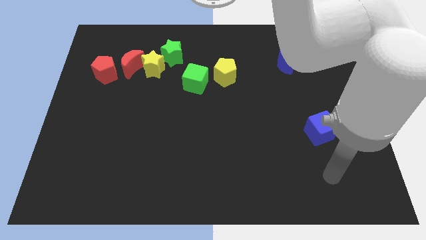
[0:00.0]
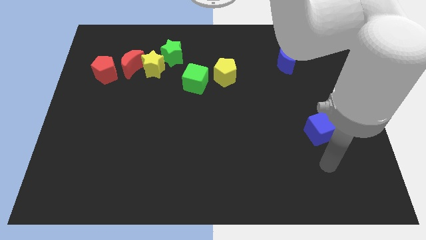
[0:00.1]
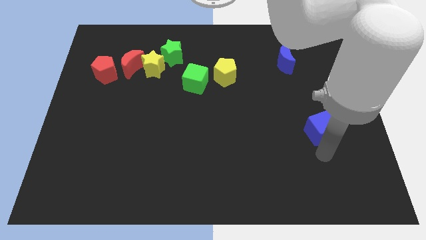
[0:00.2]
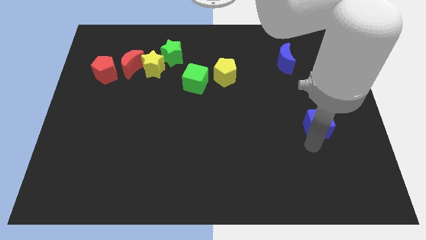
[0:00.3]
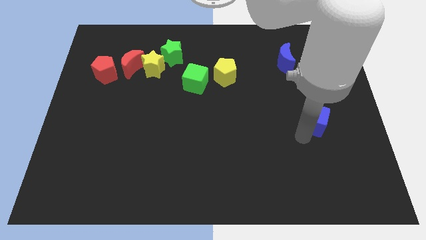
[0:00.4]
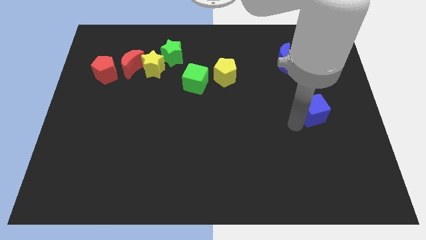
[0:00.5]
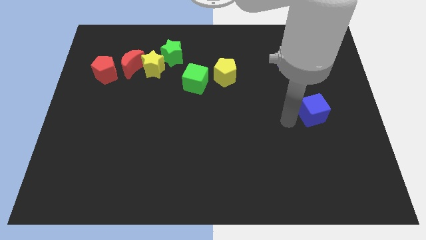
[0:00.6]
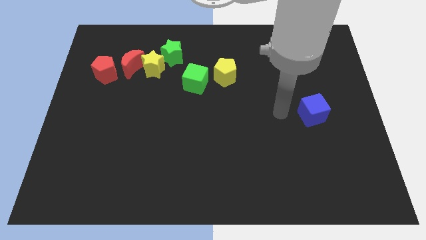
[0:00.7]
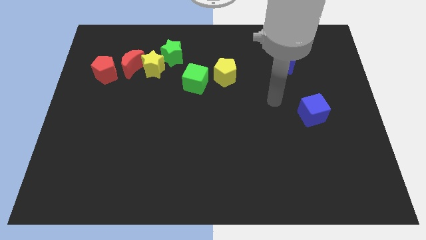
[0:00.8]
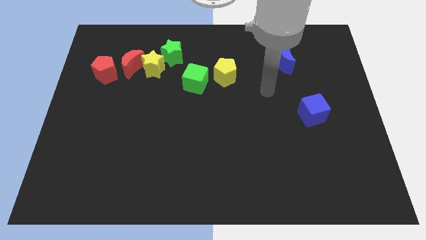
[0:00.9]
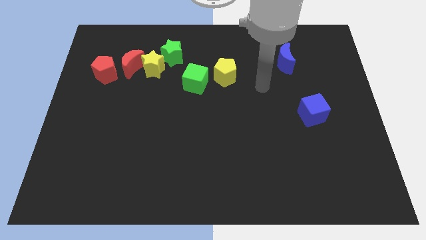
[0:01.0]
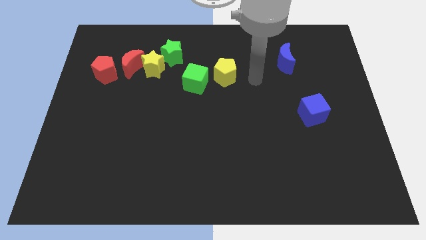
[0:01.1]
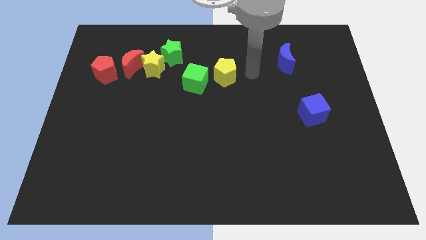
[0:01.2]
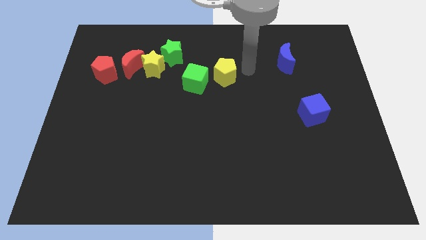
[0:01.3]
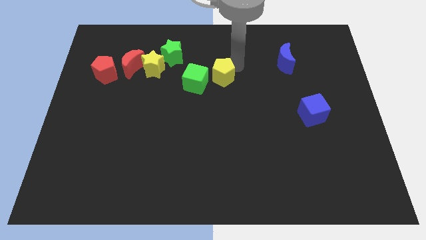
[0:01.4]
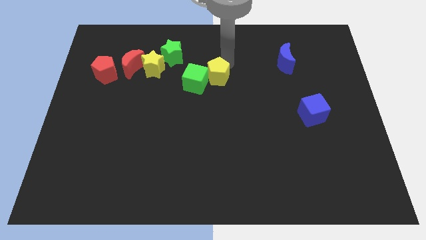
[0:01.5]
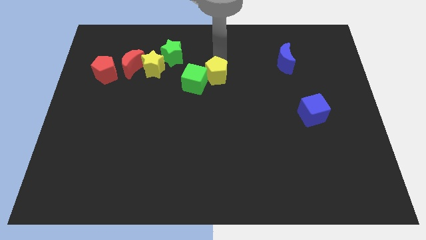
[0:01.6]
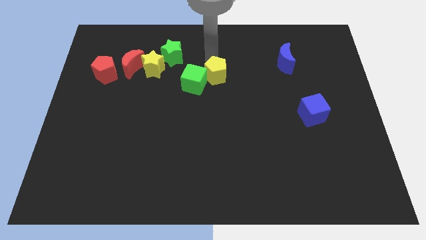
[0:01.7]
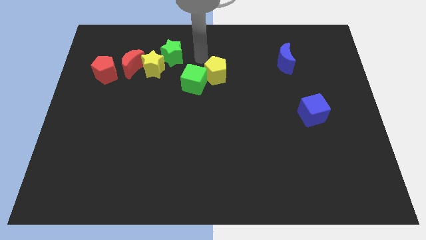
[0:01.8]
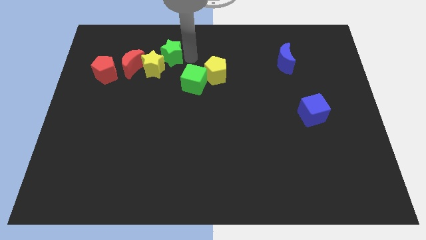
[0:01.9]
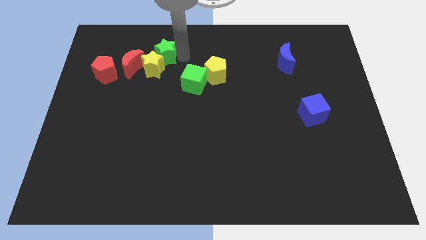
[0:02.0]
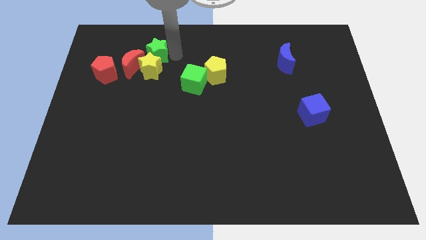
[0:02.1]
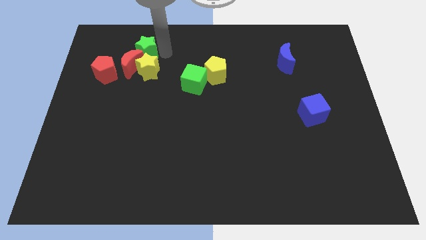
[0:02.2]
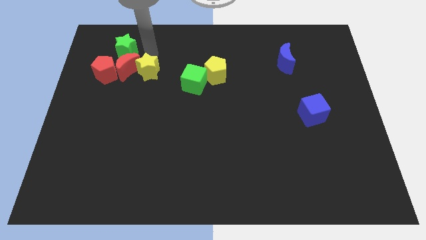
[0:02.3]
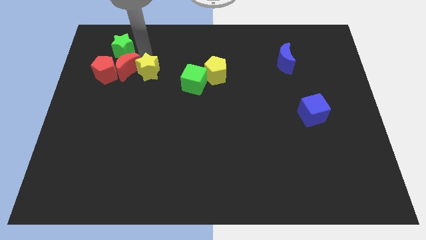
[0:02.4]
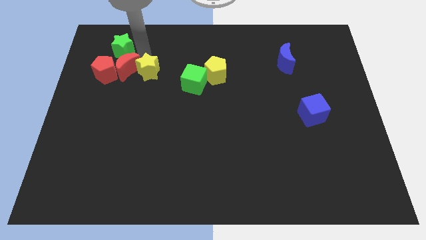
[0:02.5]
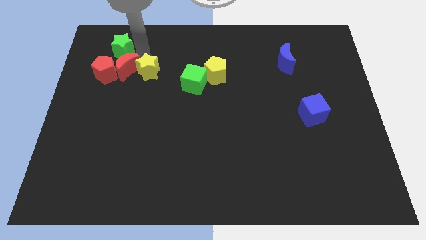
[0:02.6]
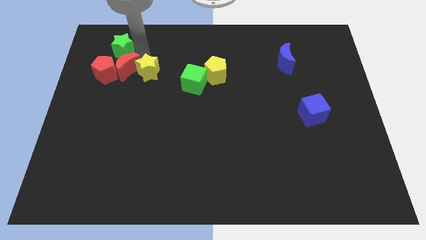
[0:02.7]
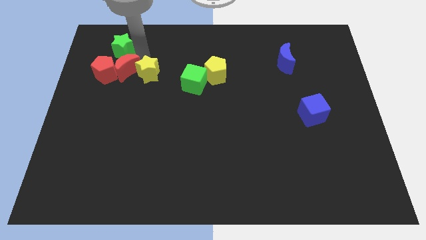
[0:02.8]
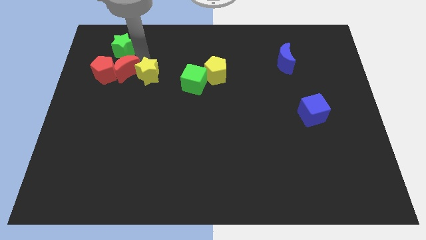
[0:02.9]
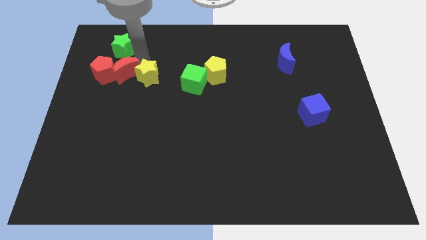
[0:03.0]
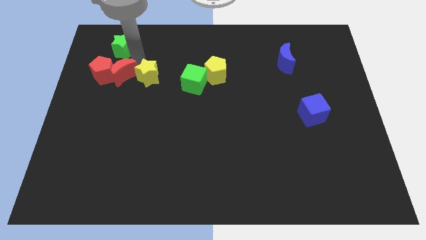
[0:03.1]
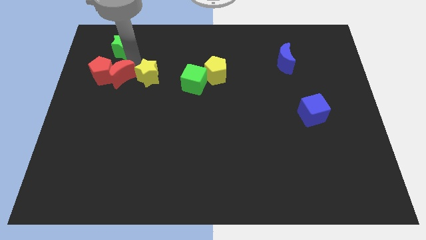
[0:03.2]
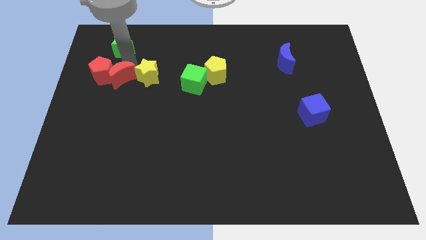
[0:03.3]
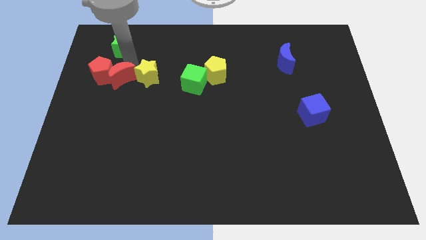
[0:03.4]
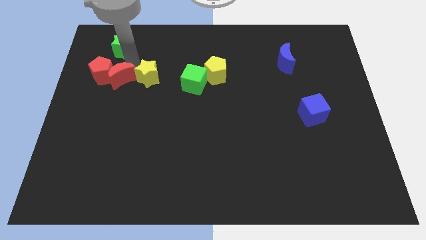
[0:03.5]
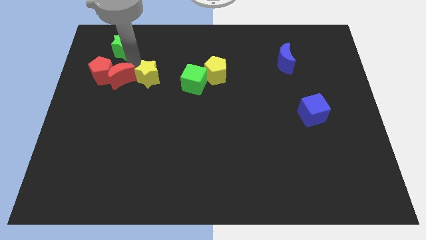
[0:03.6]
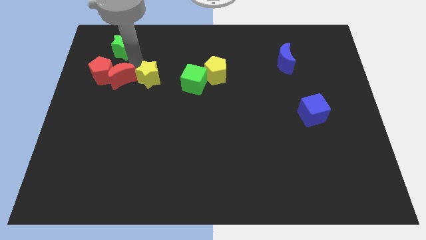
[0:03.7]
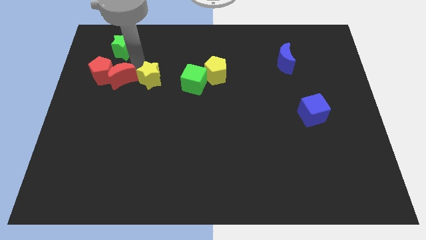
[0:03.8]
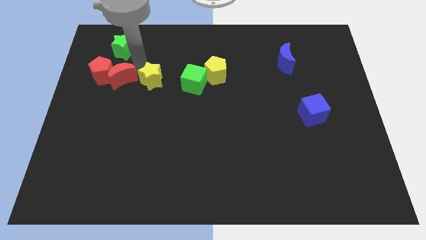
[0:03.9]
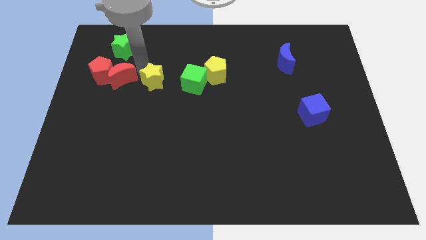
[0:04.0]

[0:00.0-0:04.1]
move the yellow star away from the red moon and green star

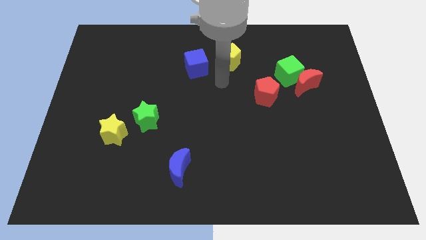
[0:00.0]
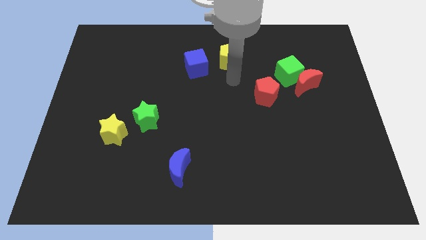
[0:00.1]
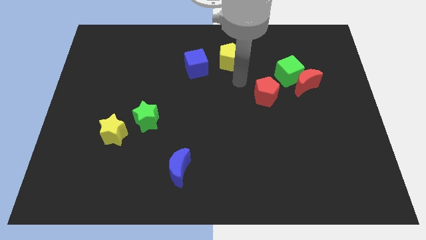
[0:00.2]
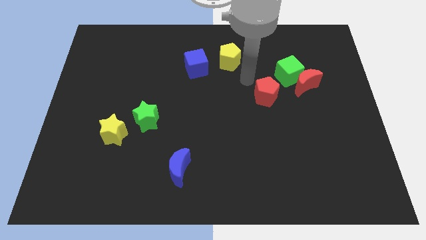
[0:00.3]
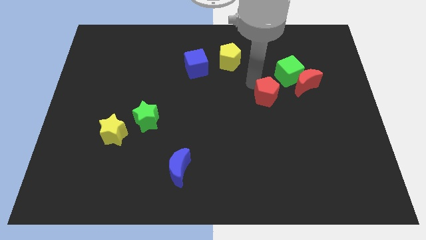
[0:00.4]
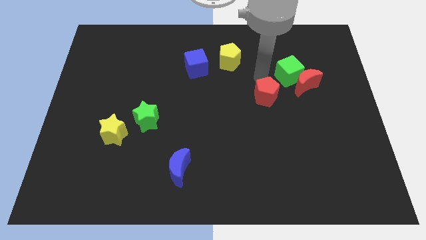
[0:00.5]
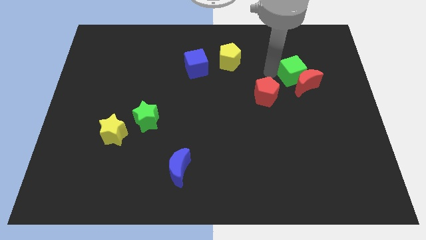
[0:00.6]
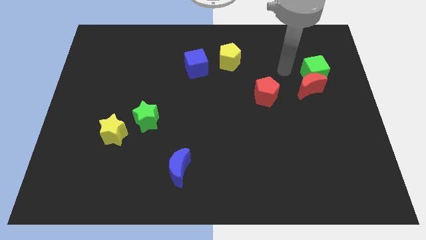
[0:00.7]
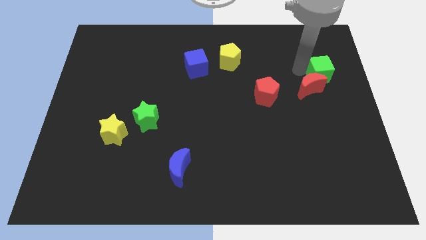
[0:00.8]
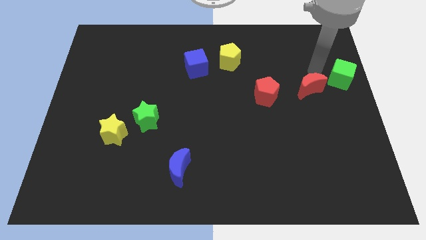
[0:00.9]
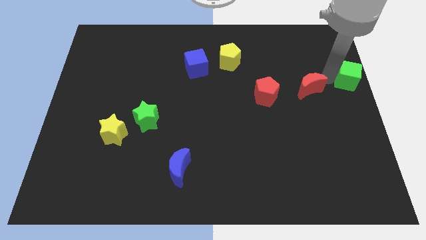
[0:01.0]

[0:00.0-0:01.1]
pull the red moon apart from the green cube

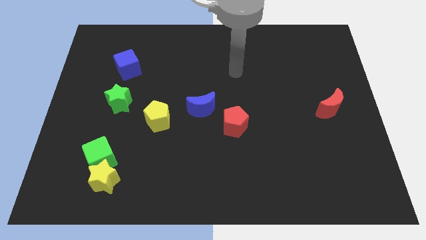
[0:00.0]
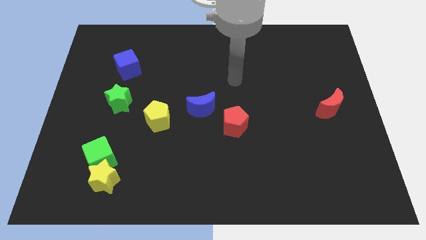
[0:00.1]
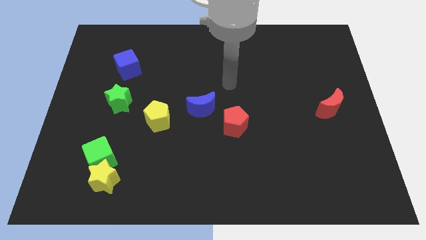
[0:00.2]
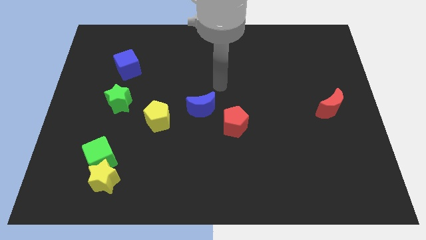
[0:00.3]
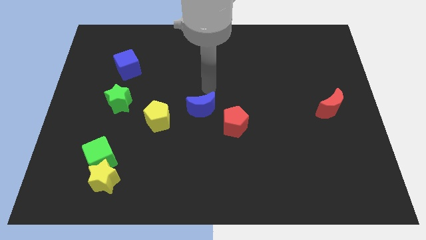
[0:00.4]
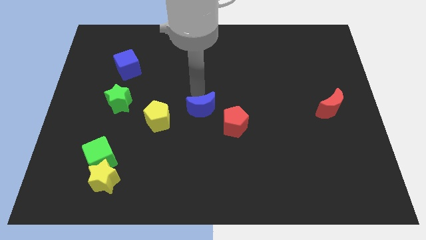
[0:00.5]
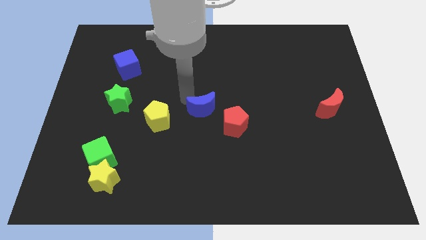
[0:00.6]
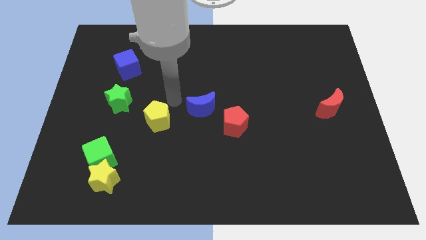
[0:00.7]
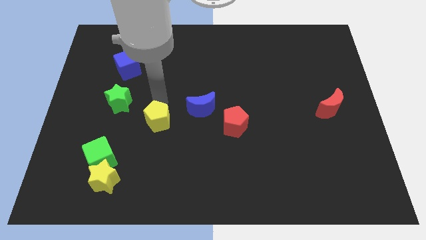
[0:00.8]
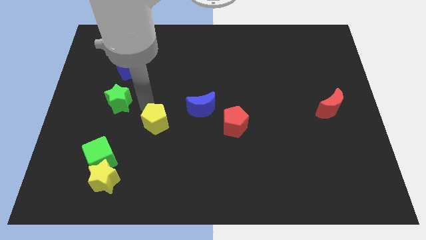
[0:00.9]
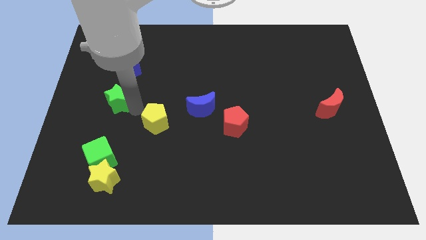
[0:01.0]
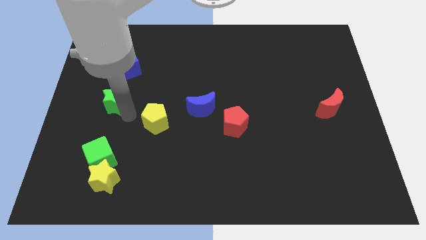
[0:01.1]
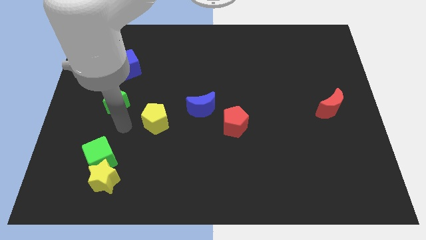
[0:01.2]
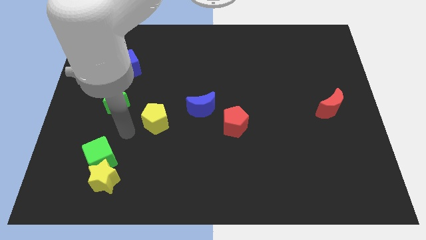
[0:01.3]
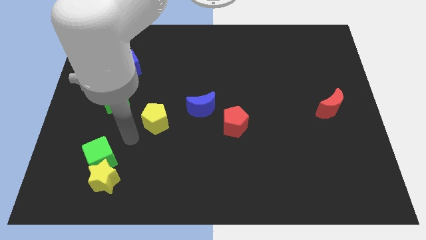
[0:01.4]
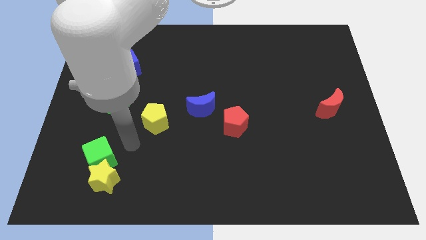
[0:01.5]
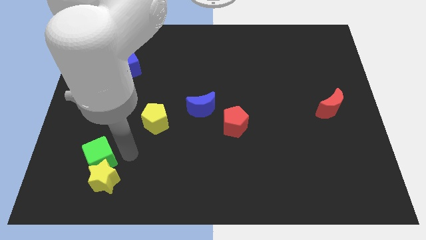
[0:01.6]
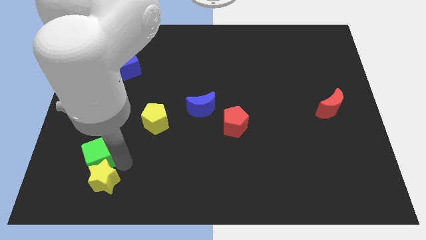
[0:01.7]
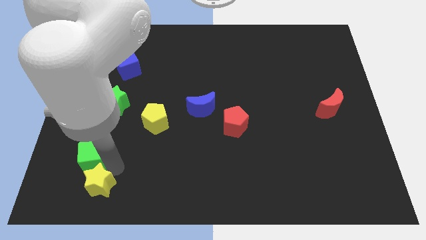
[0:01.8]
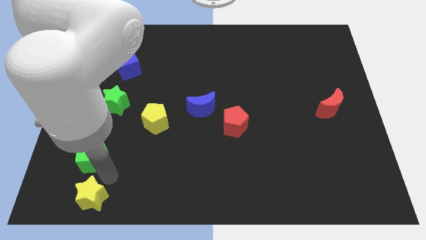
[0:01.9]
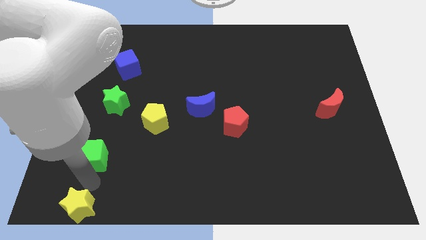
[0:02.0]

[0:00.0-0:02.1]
separate the green cube from the yellow star

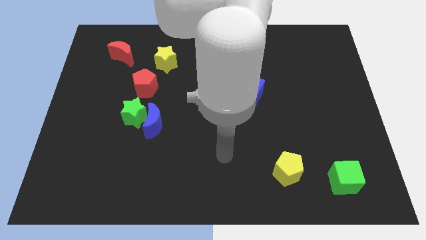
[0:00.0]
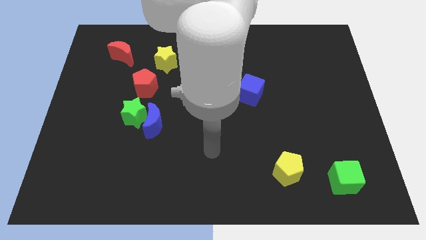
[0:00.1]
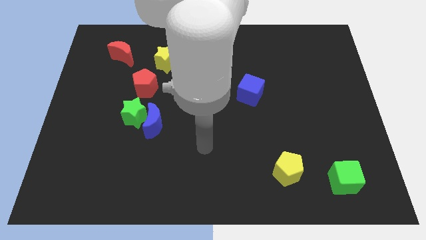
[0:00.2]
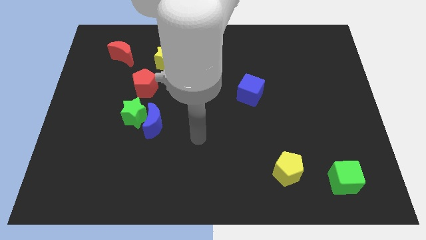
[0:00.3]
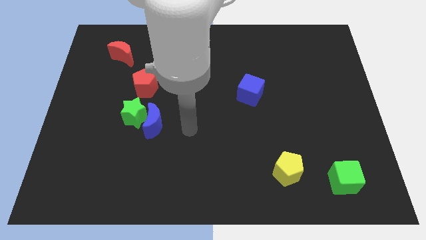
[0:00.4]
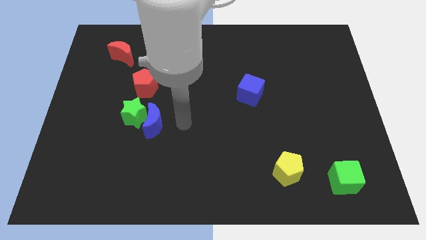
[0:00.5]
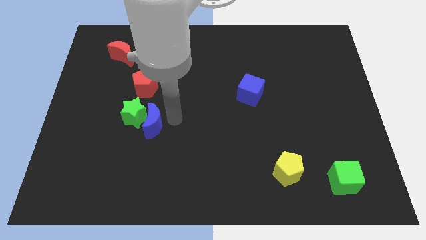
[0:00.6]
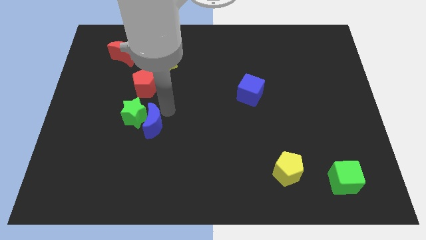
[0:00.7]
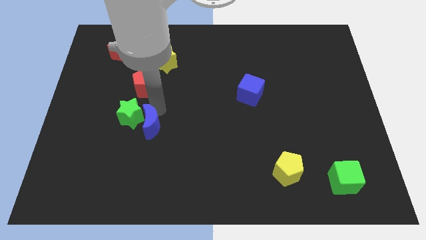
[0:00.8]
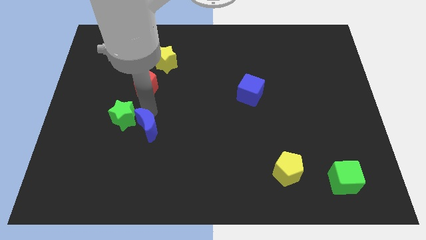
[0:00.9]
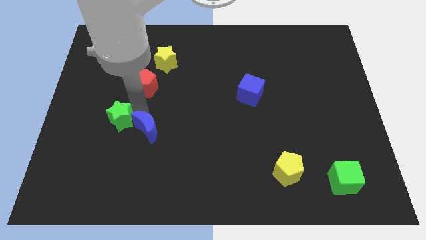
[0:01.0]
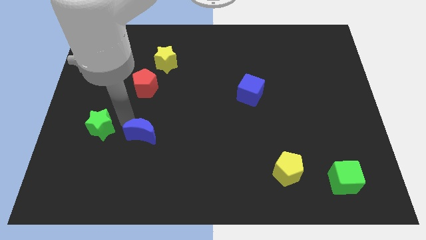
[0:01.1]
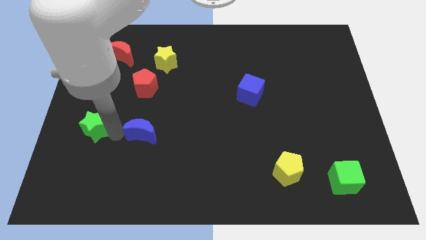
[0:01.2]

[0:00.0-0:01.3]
move the blue moon away from the green star

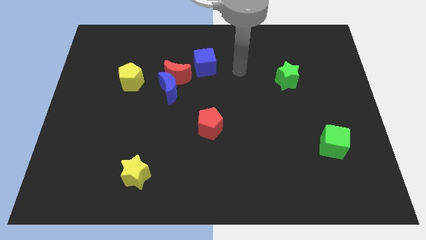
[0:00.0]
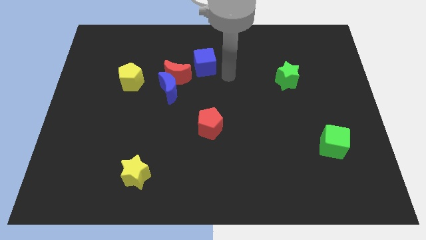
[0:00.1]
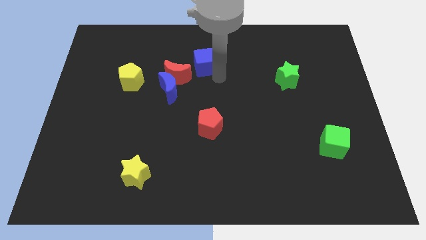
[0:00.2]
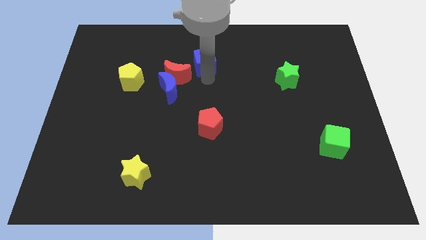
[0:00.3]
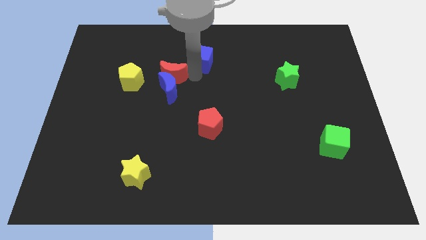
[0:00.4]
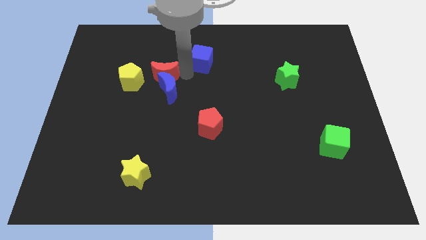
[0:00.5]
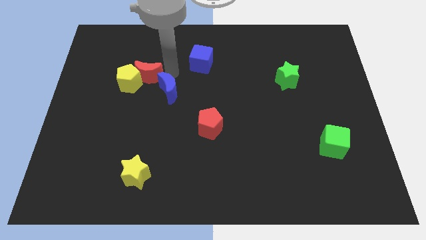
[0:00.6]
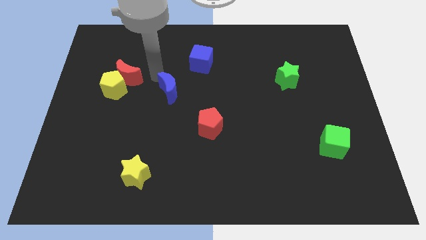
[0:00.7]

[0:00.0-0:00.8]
pull the blue moon apart from the red moon
